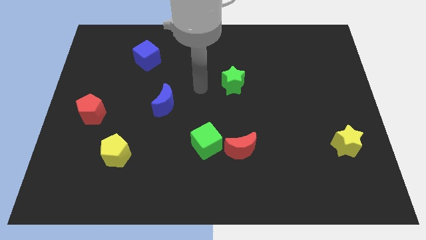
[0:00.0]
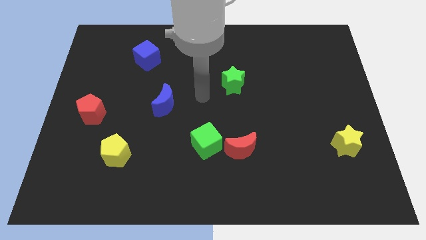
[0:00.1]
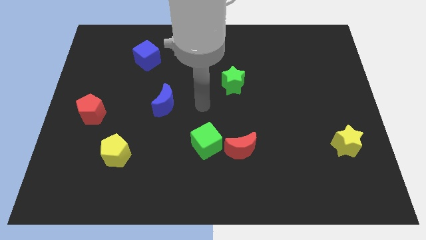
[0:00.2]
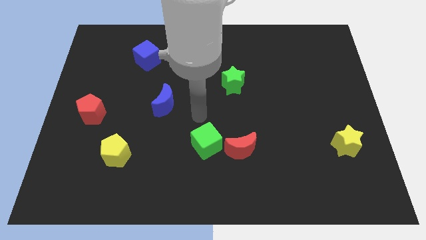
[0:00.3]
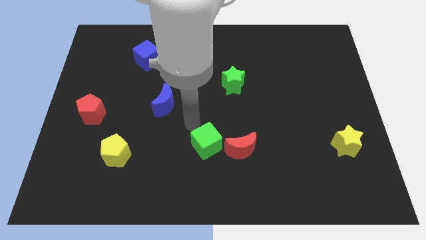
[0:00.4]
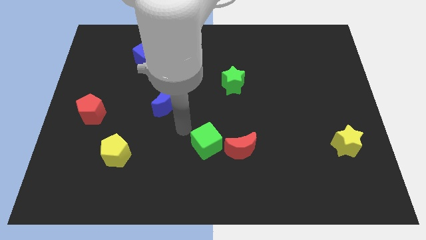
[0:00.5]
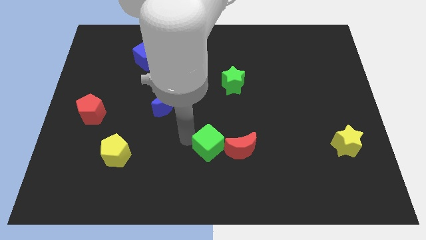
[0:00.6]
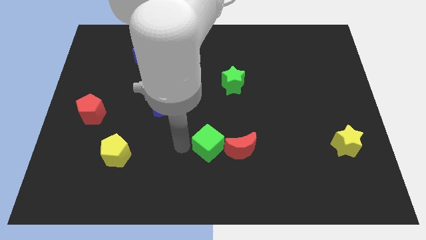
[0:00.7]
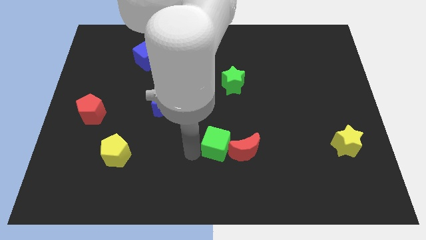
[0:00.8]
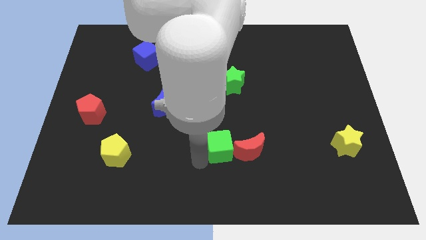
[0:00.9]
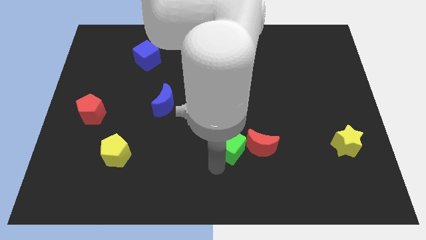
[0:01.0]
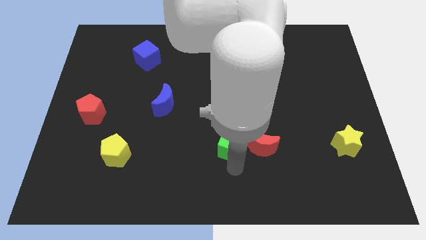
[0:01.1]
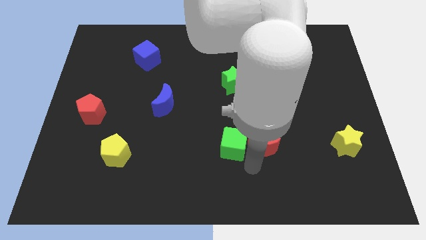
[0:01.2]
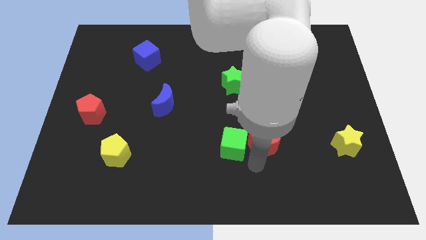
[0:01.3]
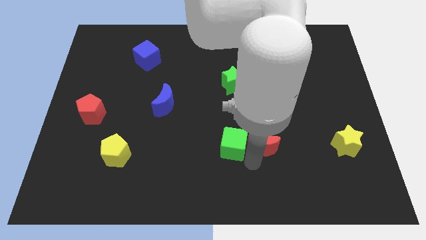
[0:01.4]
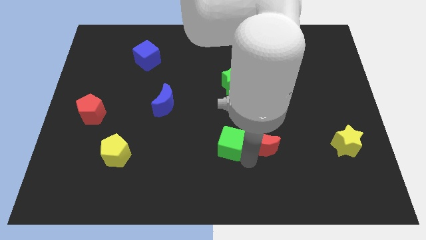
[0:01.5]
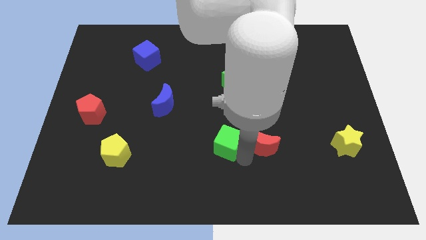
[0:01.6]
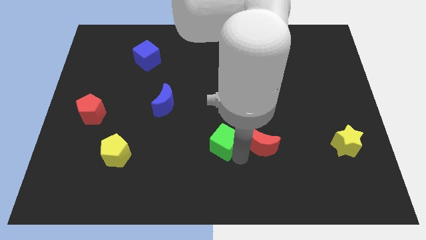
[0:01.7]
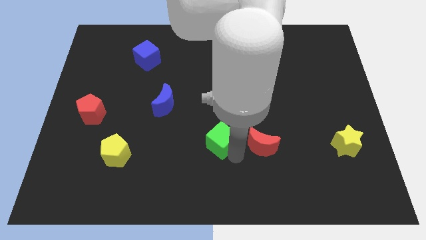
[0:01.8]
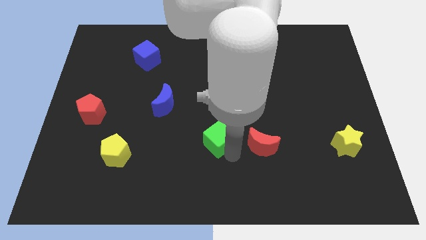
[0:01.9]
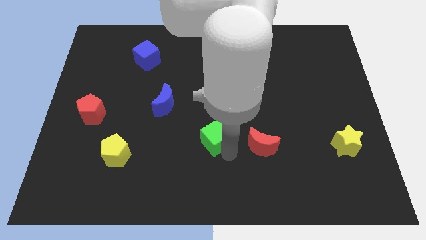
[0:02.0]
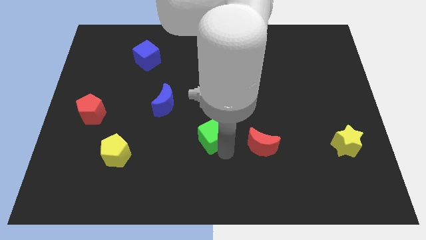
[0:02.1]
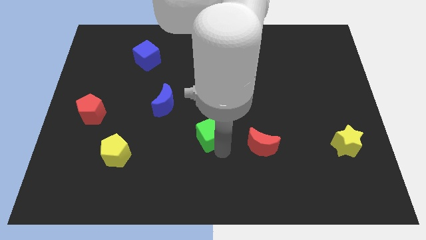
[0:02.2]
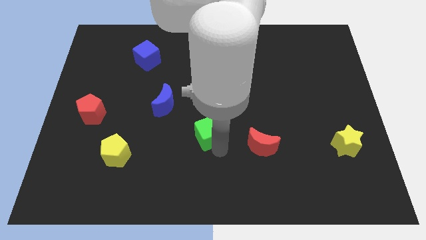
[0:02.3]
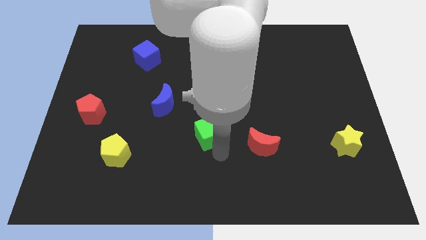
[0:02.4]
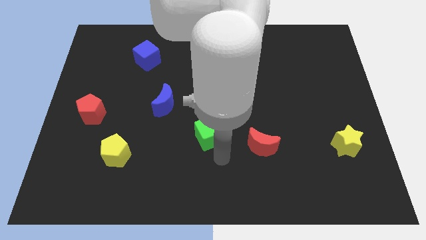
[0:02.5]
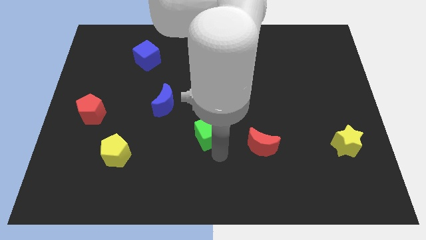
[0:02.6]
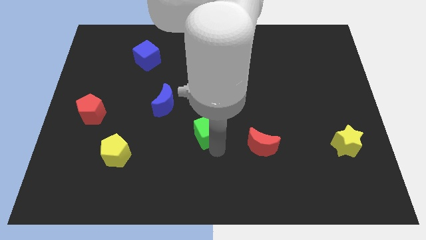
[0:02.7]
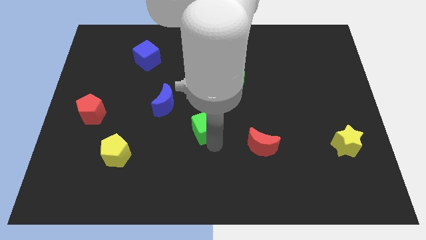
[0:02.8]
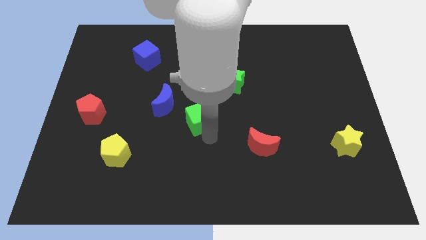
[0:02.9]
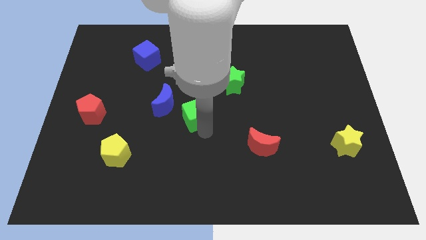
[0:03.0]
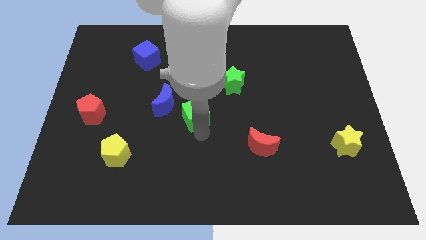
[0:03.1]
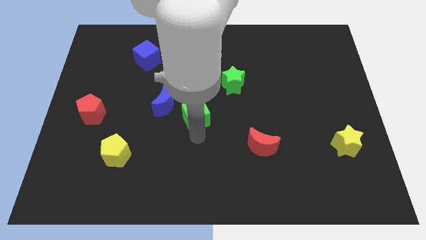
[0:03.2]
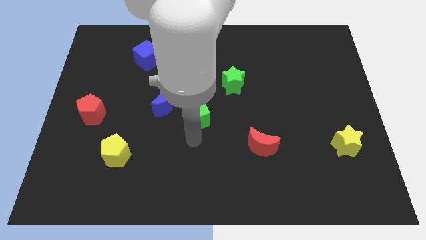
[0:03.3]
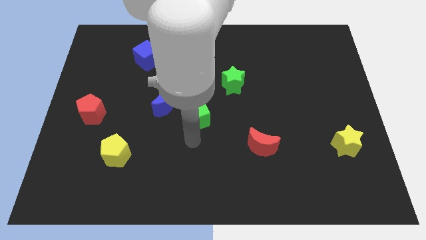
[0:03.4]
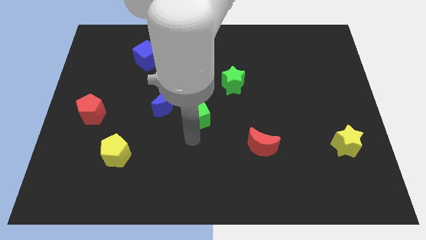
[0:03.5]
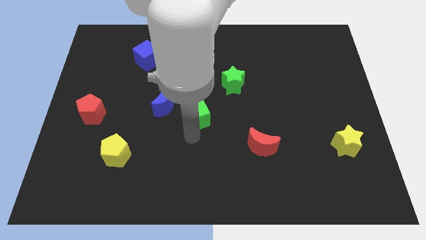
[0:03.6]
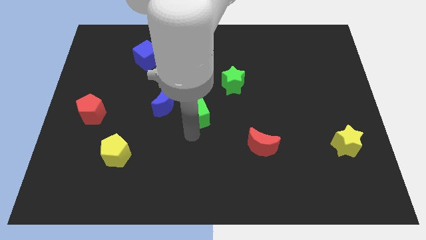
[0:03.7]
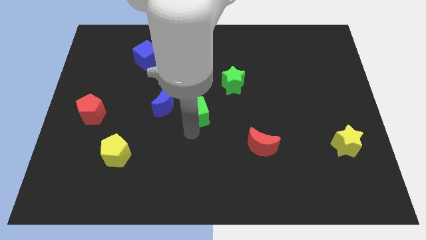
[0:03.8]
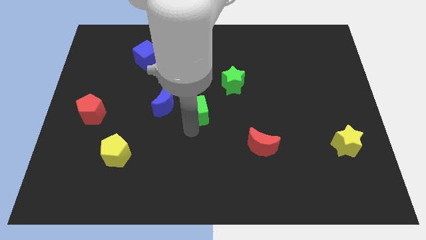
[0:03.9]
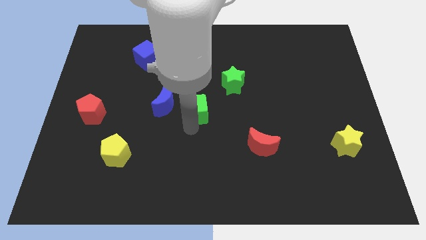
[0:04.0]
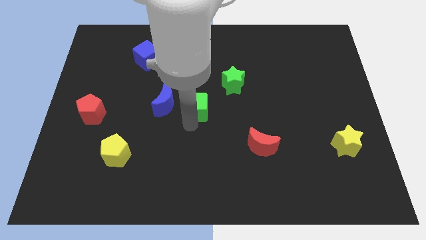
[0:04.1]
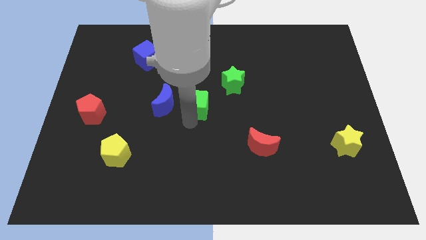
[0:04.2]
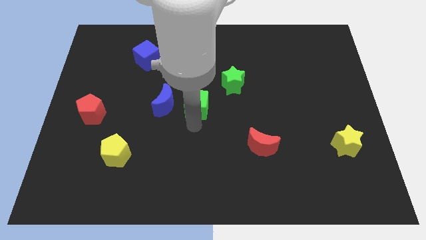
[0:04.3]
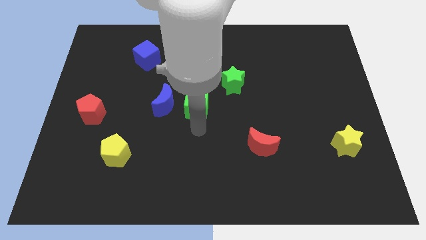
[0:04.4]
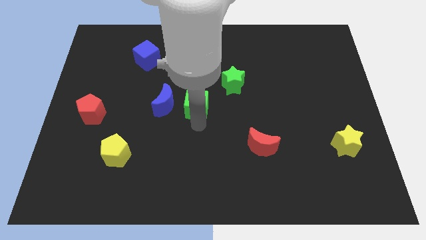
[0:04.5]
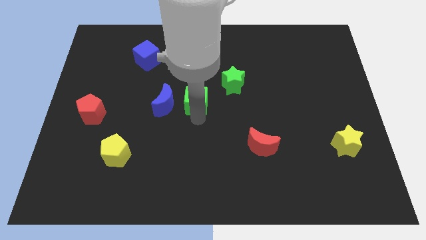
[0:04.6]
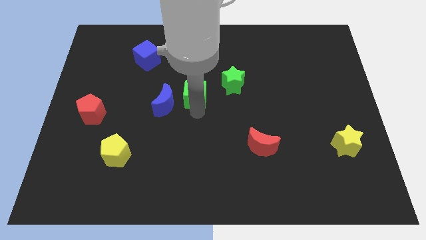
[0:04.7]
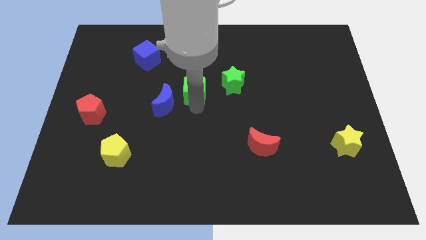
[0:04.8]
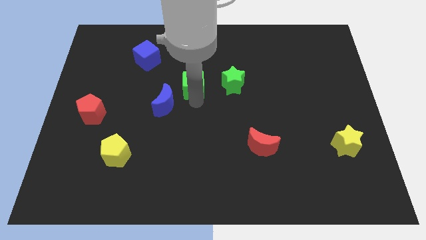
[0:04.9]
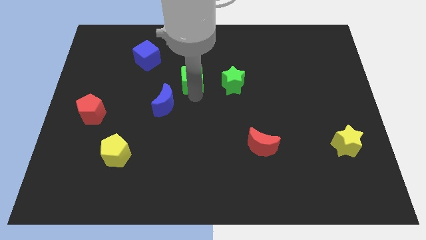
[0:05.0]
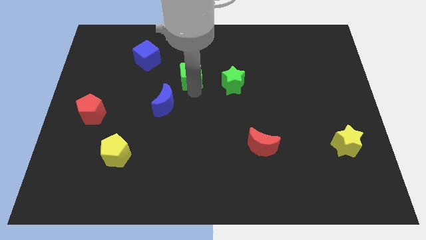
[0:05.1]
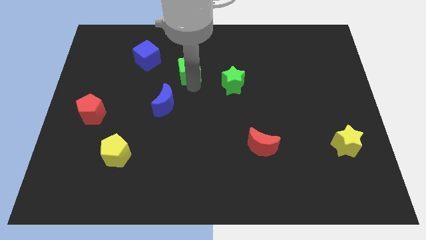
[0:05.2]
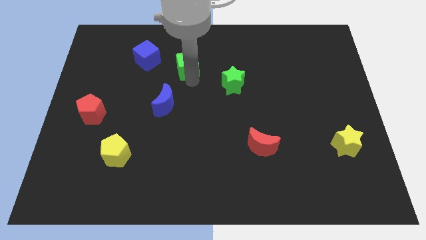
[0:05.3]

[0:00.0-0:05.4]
push the green cube to the right side of the blue cube
